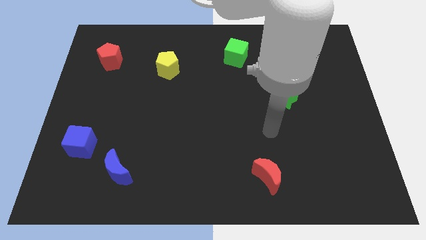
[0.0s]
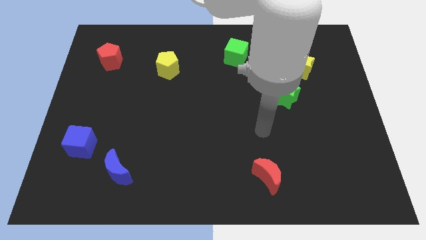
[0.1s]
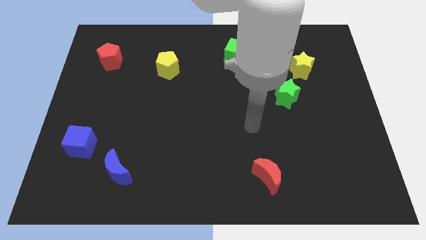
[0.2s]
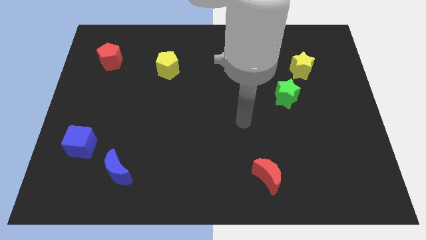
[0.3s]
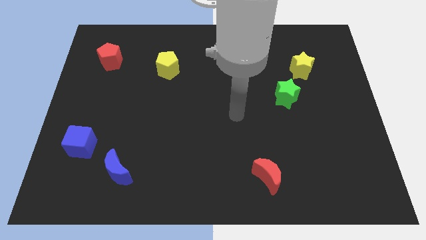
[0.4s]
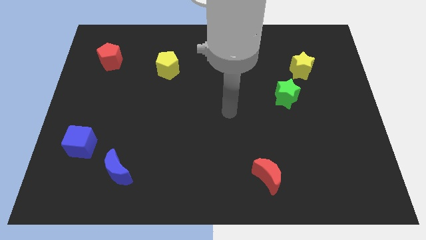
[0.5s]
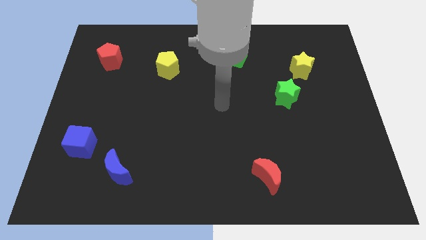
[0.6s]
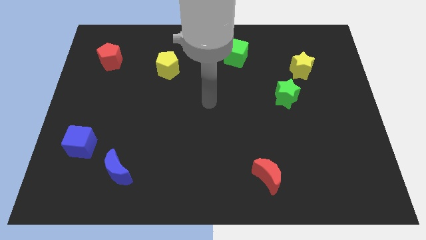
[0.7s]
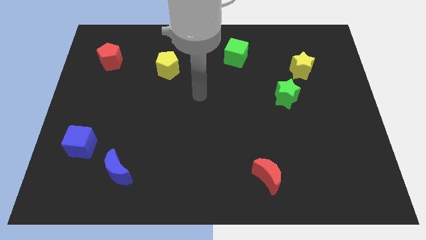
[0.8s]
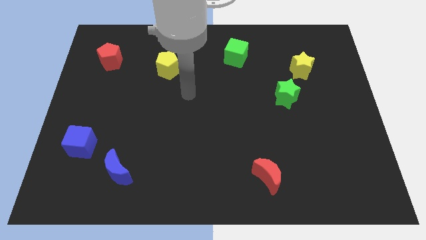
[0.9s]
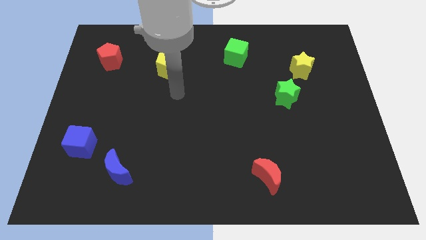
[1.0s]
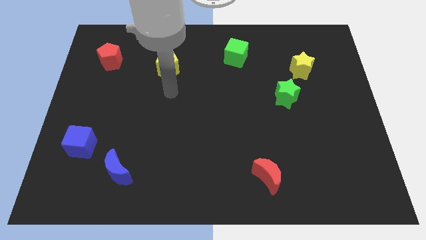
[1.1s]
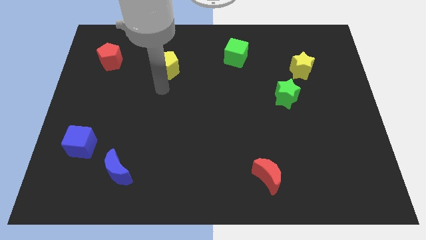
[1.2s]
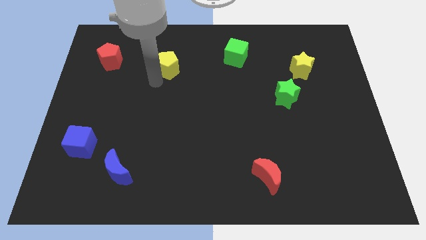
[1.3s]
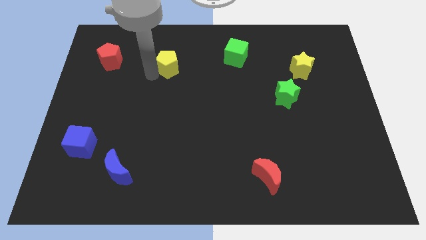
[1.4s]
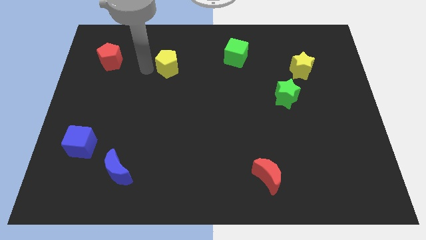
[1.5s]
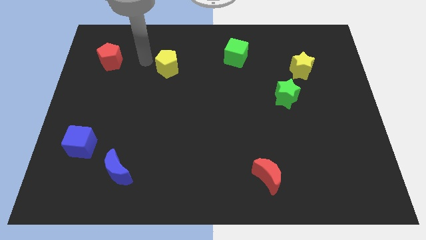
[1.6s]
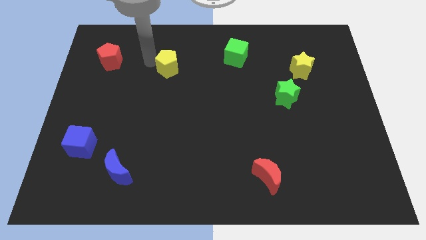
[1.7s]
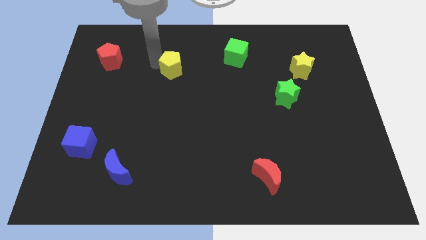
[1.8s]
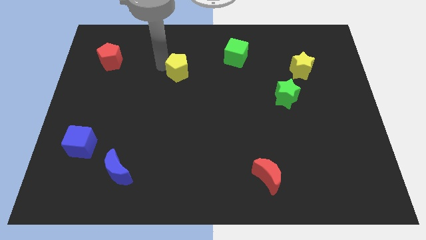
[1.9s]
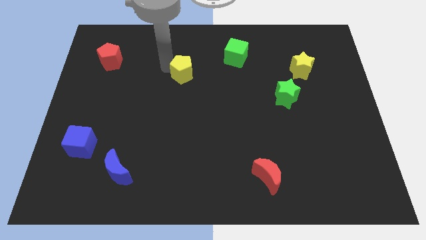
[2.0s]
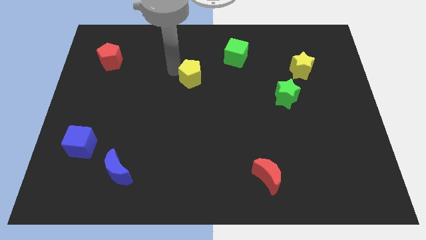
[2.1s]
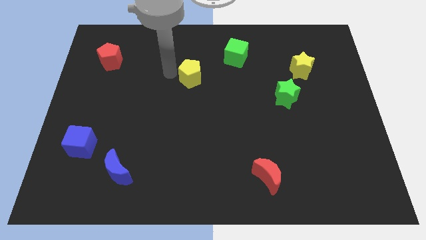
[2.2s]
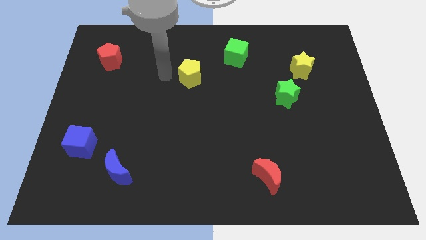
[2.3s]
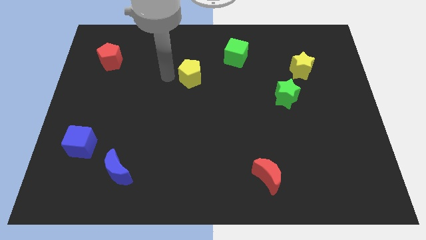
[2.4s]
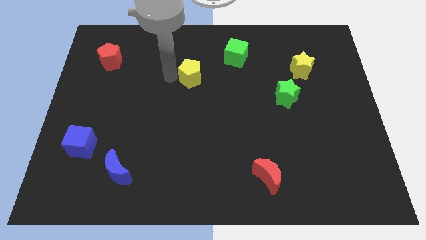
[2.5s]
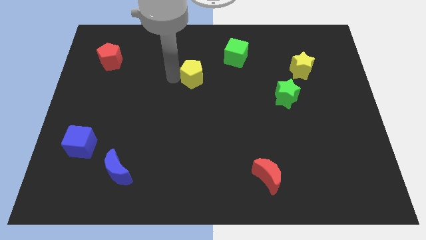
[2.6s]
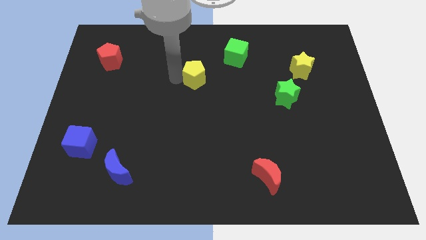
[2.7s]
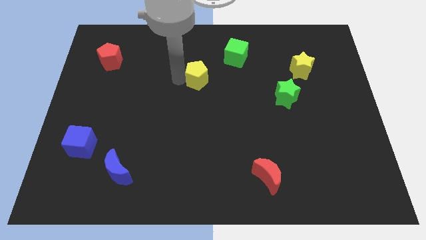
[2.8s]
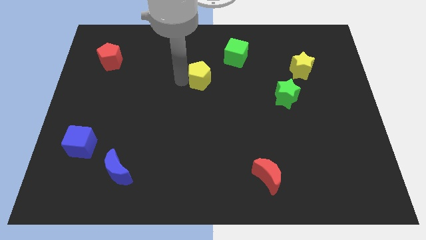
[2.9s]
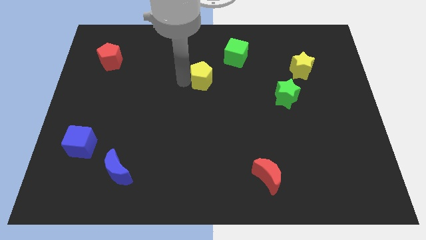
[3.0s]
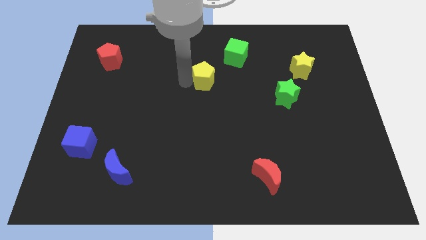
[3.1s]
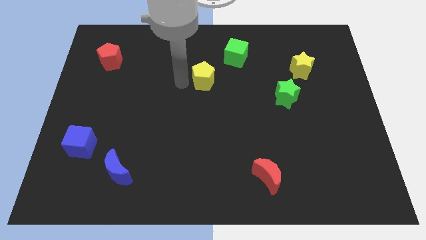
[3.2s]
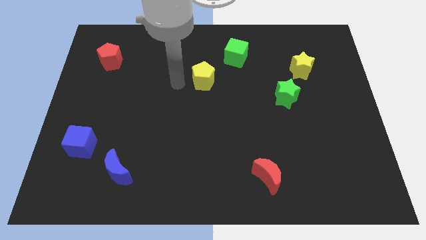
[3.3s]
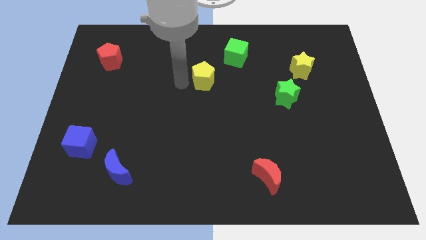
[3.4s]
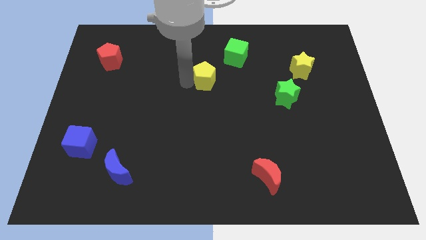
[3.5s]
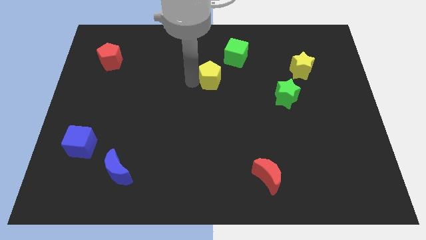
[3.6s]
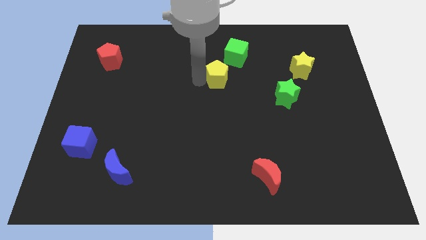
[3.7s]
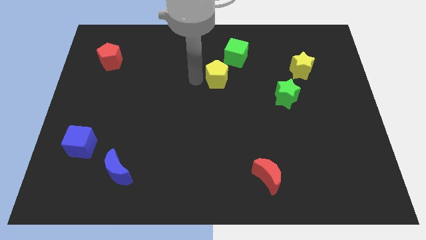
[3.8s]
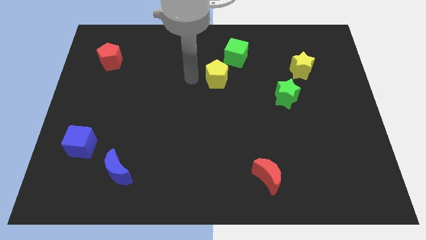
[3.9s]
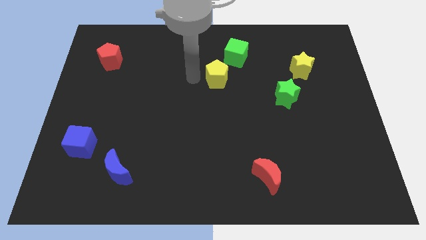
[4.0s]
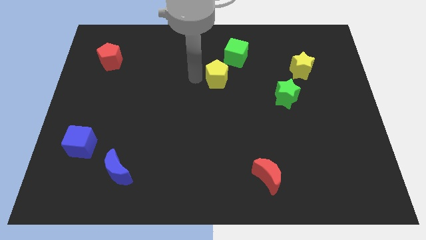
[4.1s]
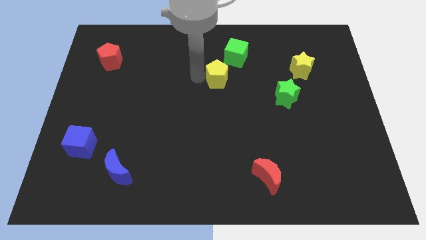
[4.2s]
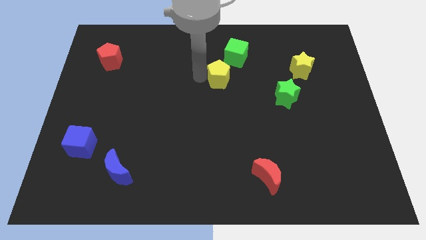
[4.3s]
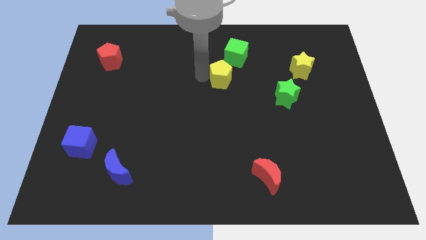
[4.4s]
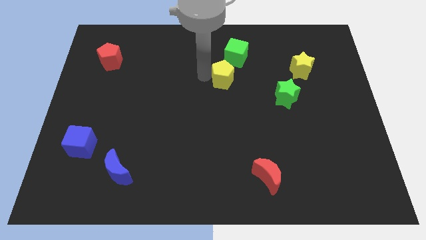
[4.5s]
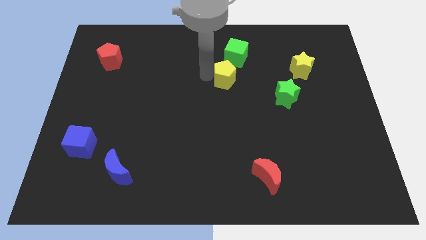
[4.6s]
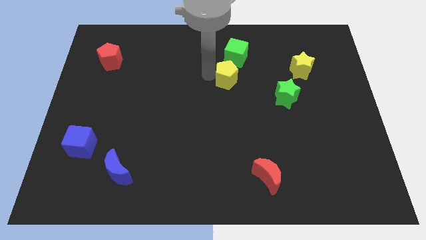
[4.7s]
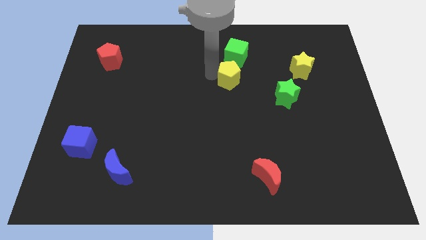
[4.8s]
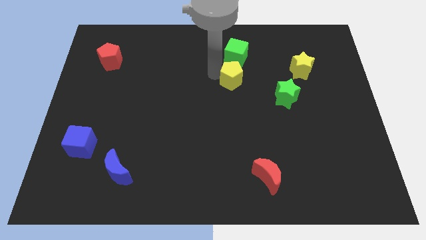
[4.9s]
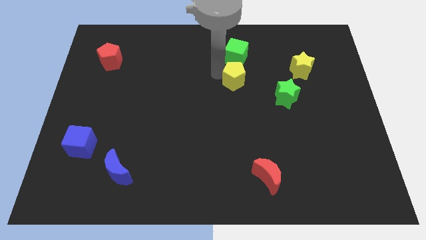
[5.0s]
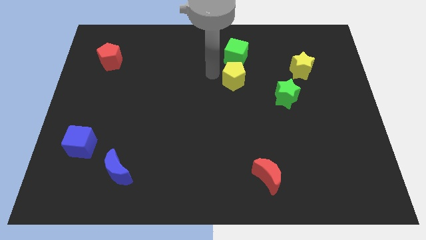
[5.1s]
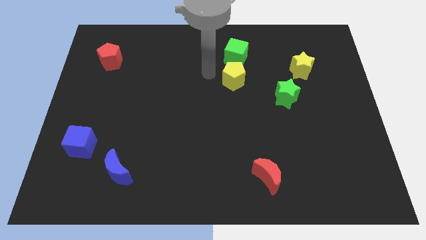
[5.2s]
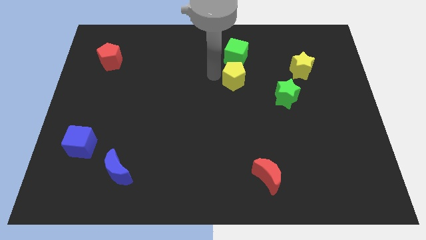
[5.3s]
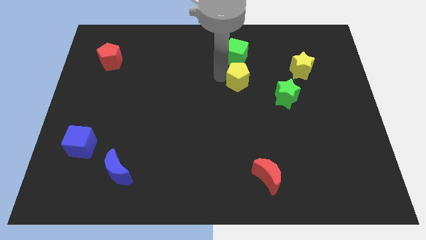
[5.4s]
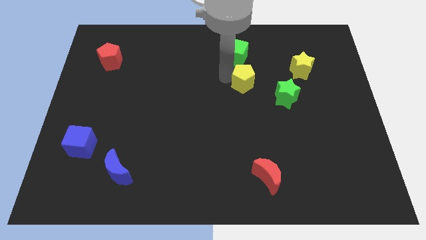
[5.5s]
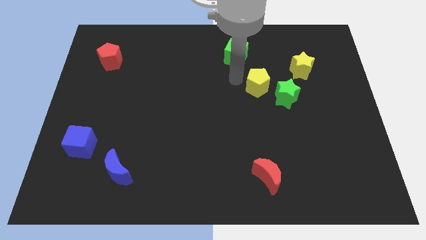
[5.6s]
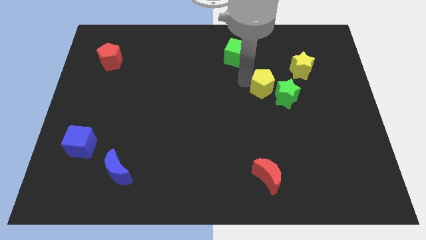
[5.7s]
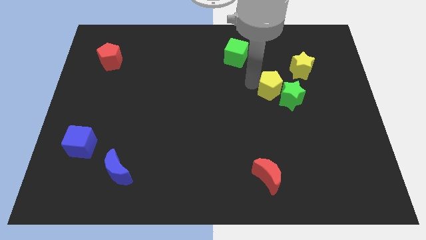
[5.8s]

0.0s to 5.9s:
move the yellow pentagon close to the green star
